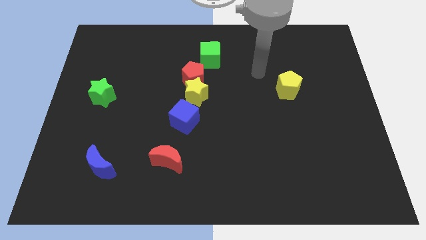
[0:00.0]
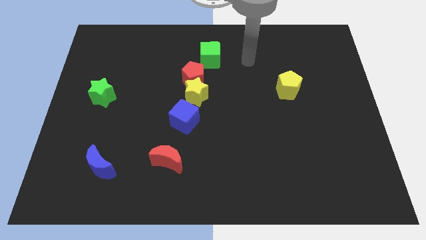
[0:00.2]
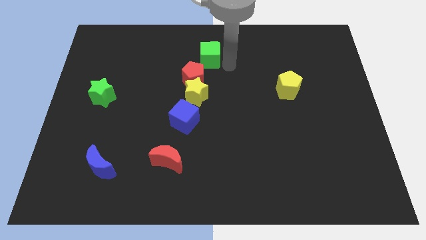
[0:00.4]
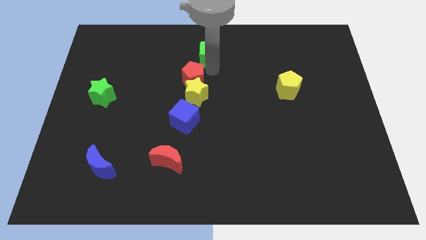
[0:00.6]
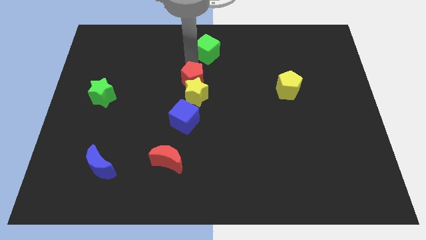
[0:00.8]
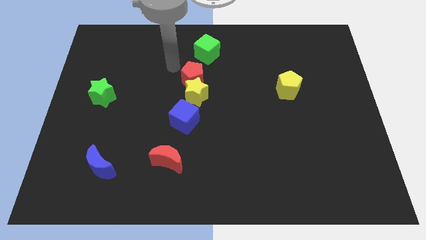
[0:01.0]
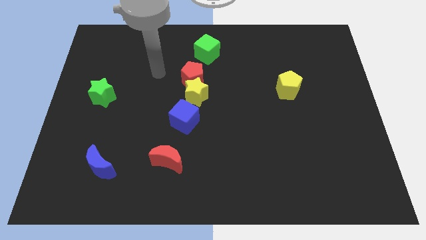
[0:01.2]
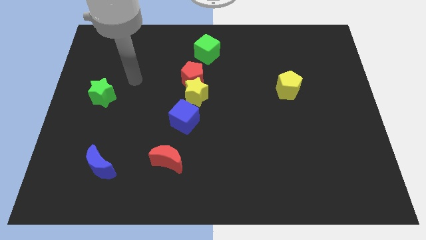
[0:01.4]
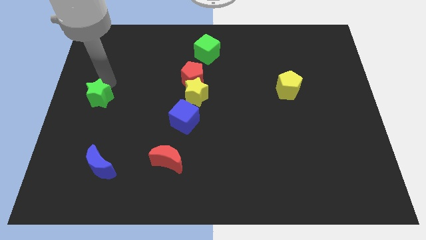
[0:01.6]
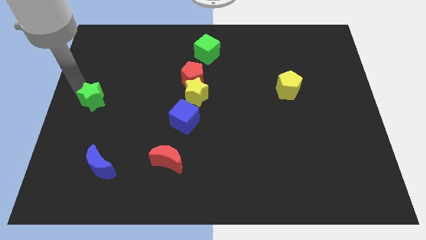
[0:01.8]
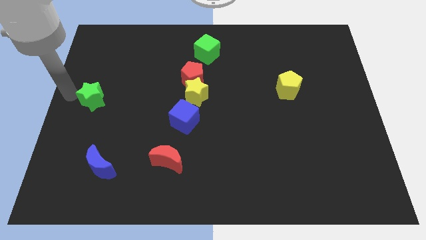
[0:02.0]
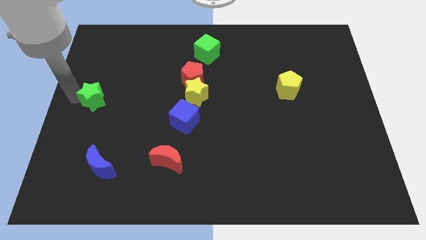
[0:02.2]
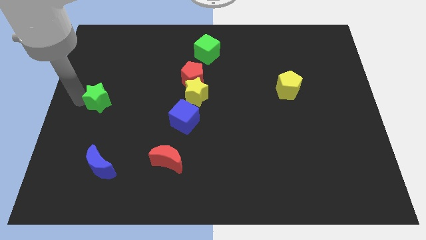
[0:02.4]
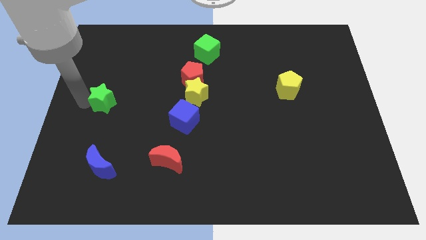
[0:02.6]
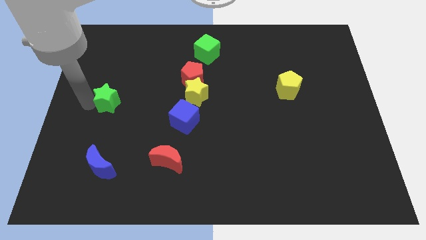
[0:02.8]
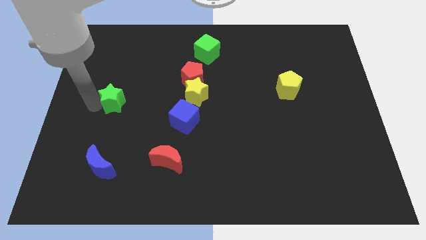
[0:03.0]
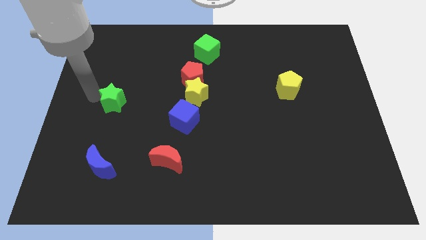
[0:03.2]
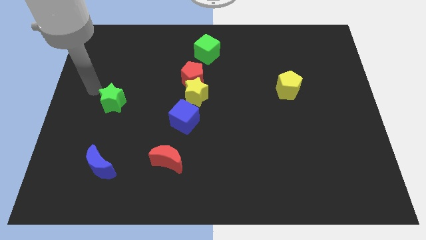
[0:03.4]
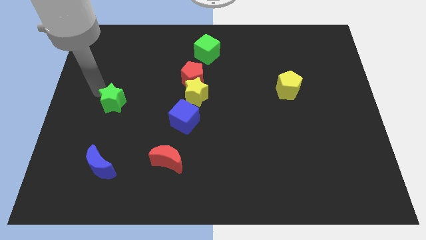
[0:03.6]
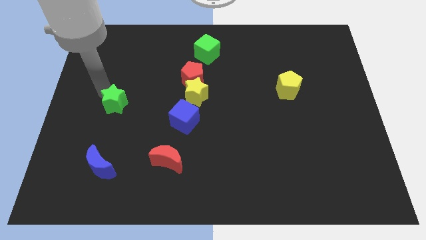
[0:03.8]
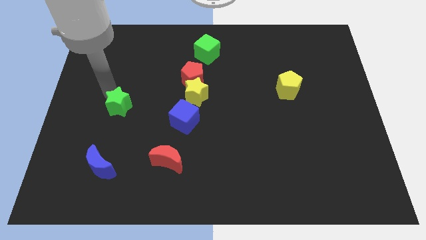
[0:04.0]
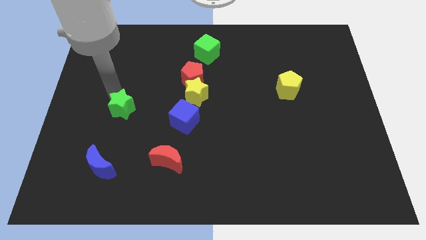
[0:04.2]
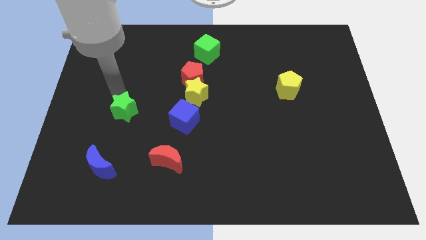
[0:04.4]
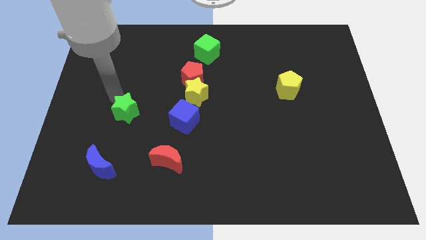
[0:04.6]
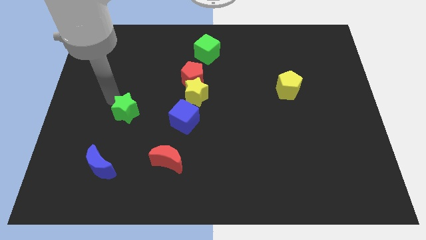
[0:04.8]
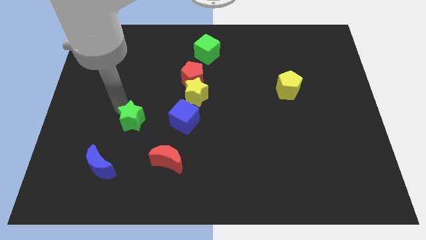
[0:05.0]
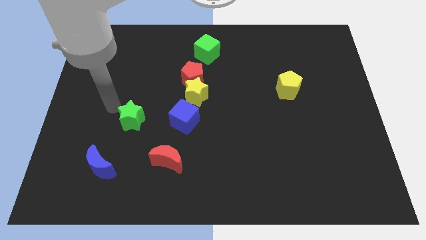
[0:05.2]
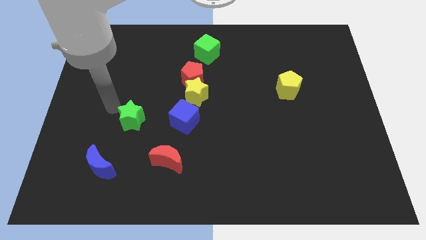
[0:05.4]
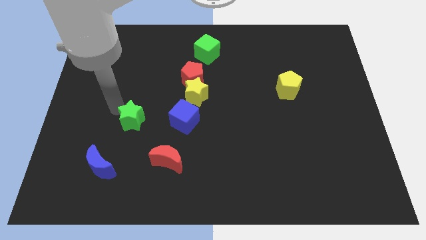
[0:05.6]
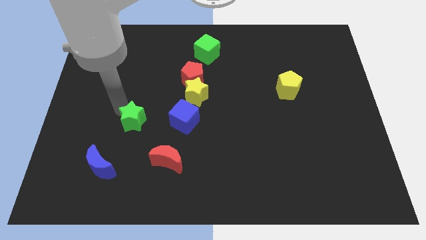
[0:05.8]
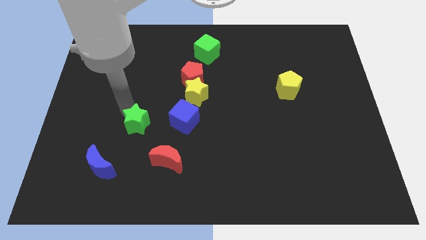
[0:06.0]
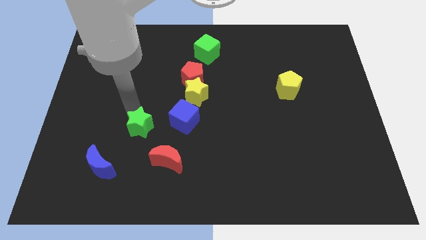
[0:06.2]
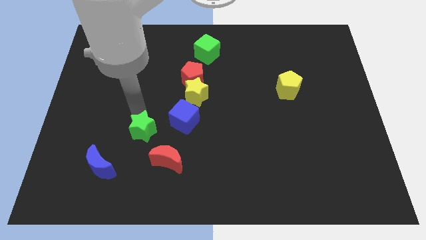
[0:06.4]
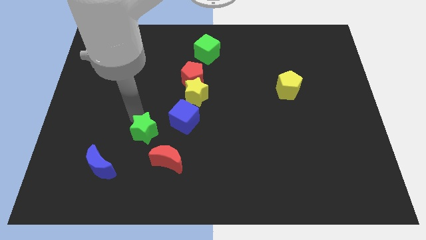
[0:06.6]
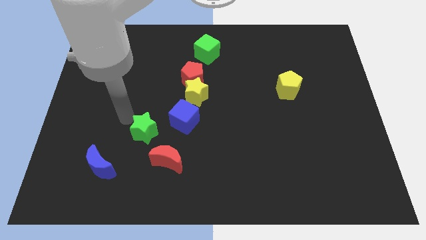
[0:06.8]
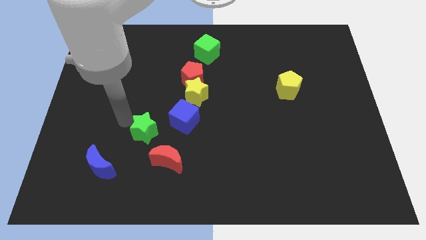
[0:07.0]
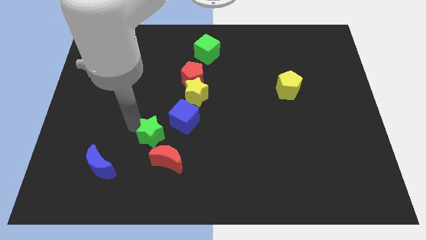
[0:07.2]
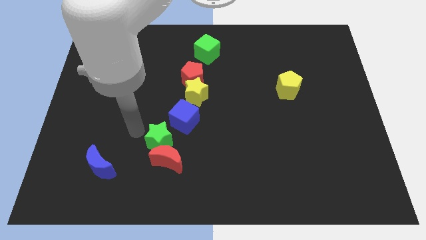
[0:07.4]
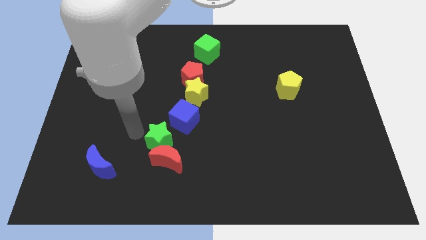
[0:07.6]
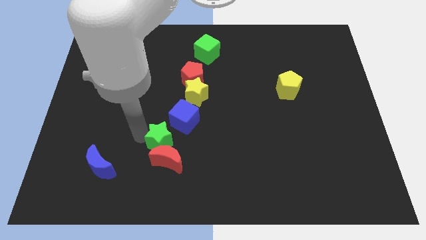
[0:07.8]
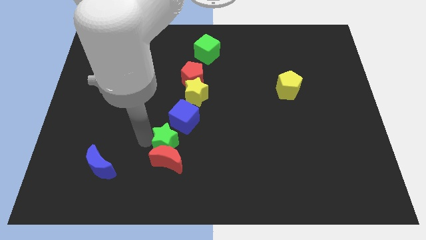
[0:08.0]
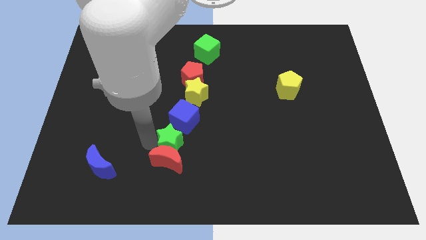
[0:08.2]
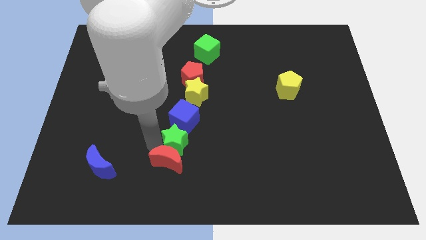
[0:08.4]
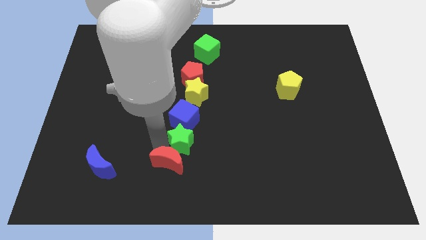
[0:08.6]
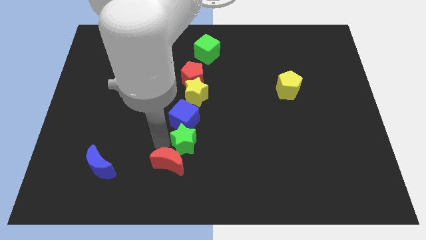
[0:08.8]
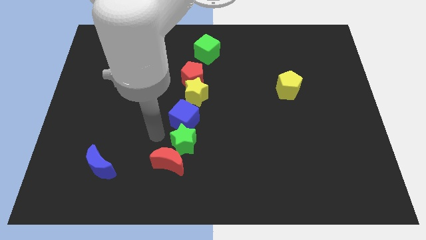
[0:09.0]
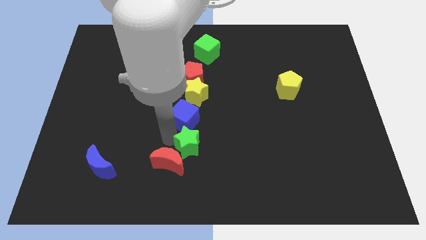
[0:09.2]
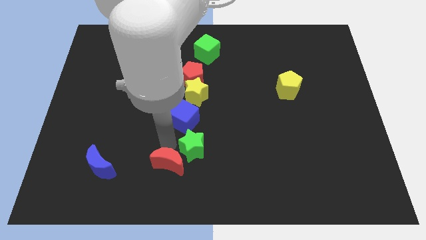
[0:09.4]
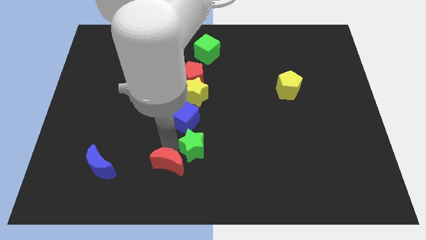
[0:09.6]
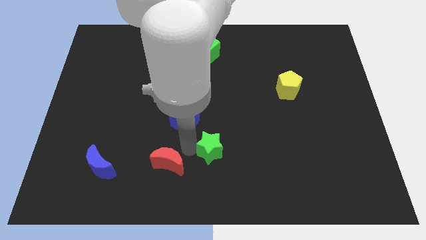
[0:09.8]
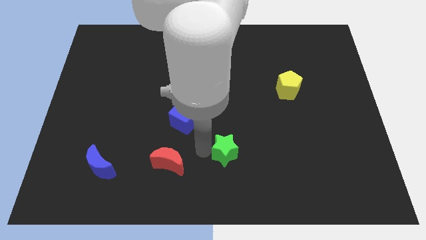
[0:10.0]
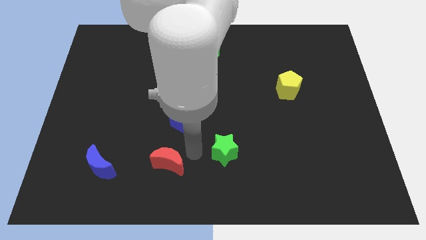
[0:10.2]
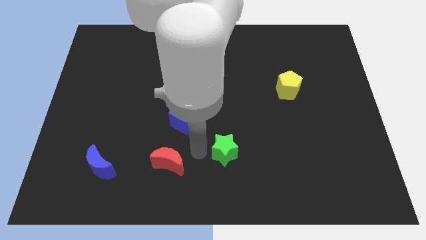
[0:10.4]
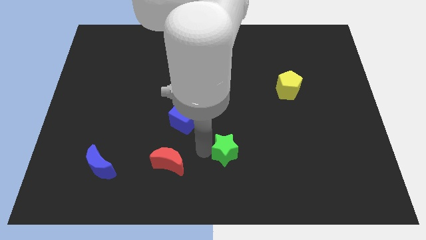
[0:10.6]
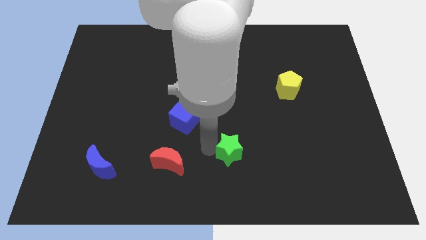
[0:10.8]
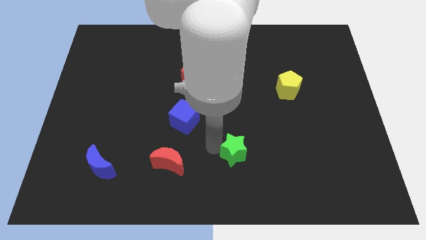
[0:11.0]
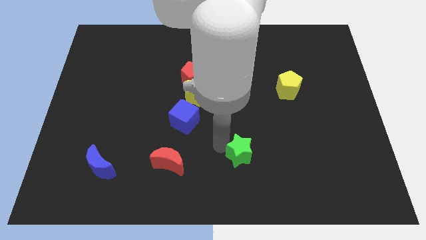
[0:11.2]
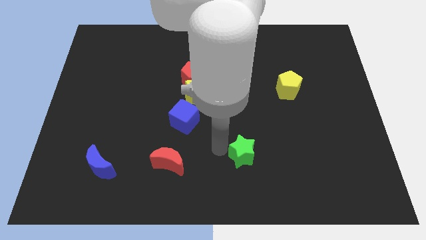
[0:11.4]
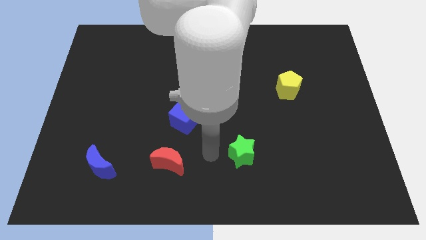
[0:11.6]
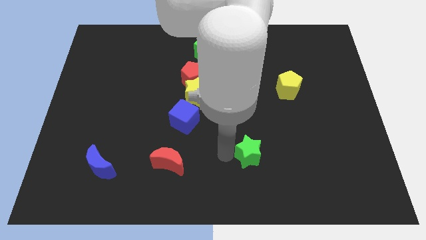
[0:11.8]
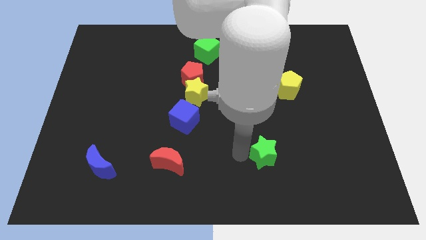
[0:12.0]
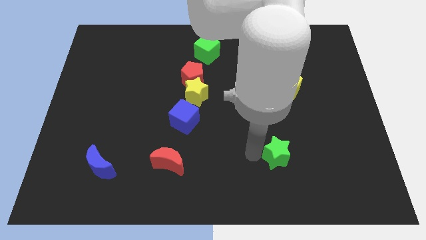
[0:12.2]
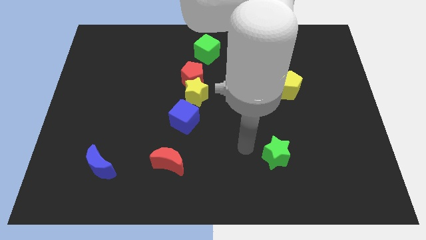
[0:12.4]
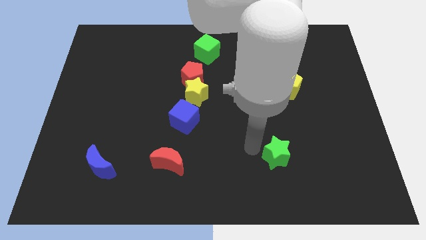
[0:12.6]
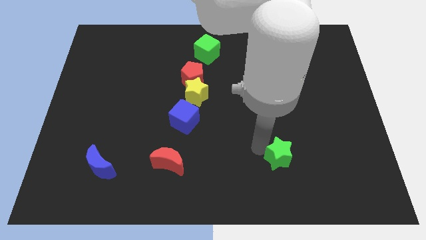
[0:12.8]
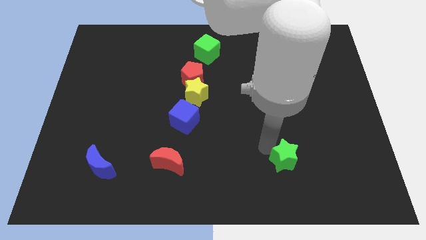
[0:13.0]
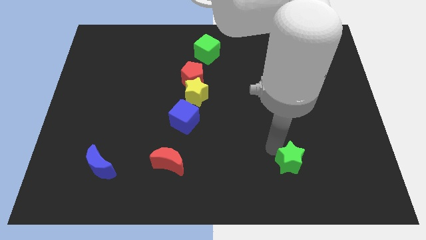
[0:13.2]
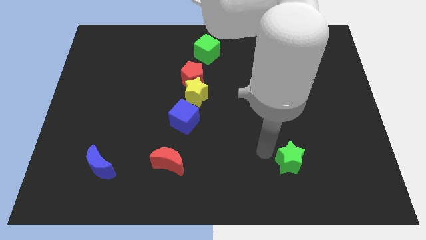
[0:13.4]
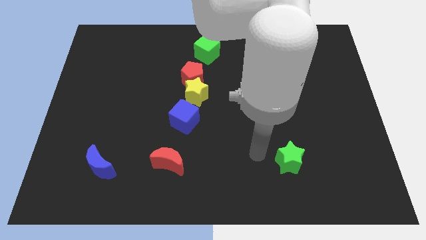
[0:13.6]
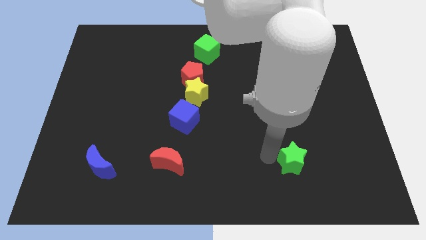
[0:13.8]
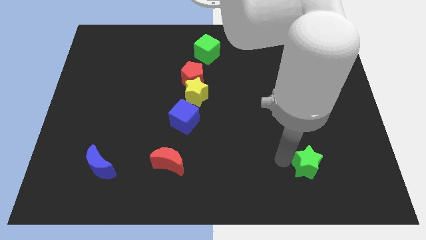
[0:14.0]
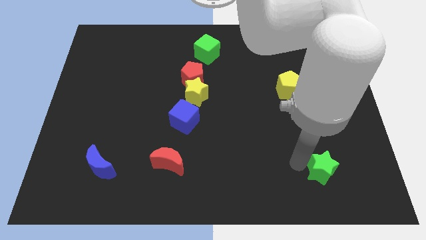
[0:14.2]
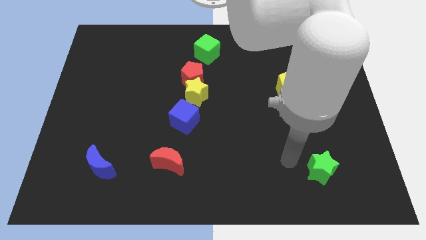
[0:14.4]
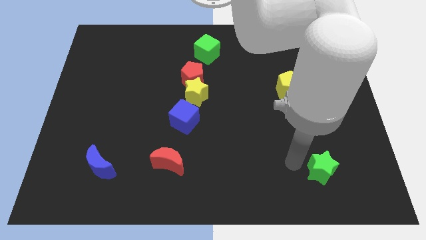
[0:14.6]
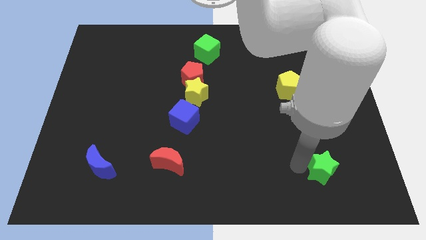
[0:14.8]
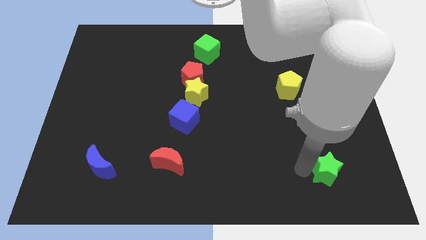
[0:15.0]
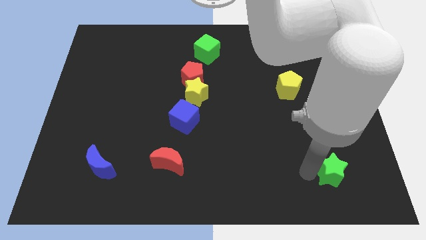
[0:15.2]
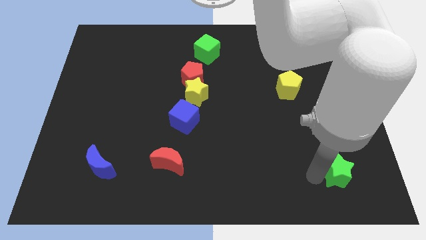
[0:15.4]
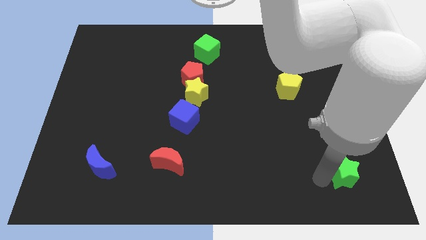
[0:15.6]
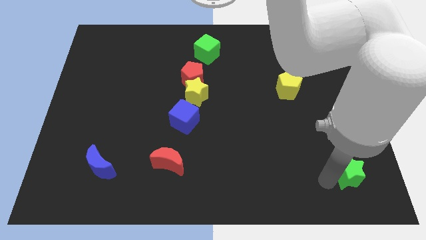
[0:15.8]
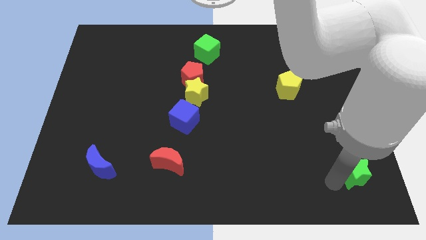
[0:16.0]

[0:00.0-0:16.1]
move the green star to the bottom right corner
